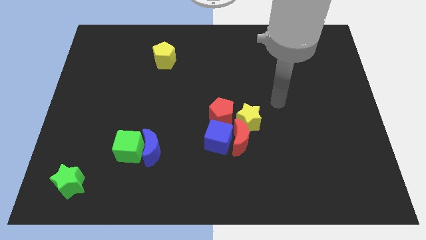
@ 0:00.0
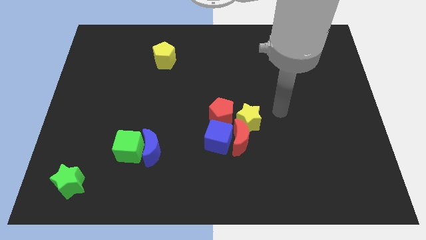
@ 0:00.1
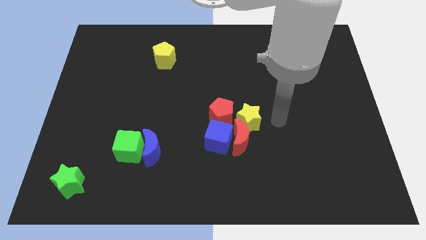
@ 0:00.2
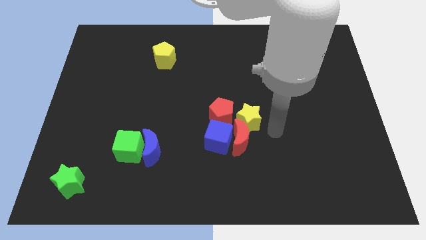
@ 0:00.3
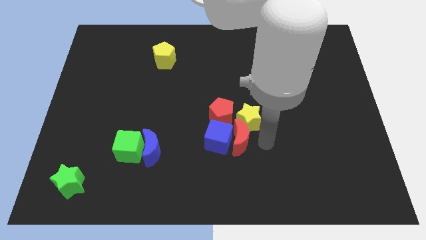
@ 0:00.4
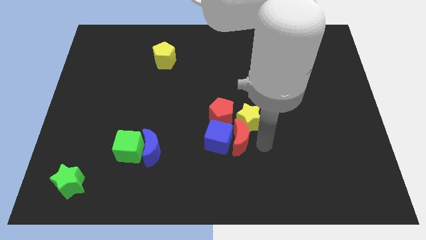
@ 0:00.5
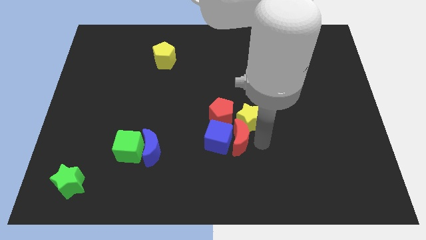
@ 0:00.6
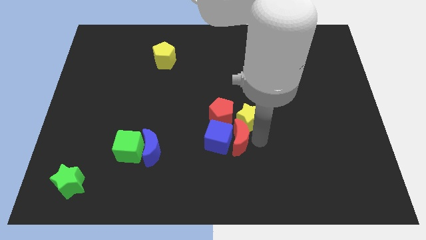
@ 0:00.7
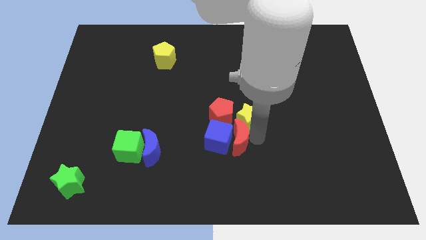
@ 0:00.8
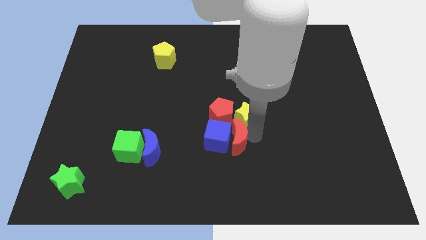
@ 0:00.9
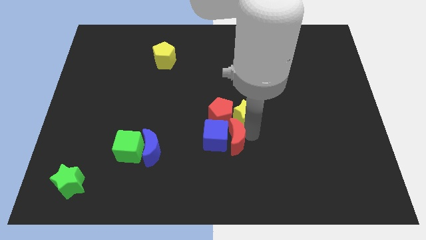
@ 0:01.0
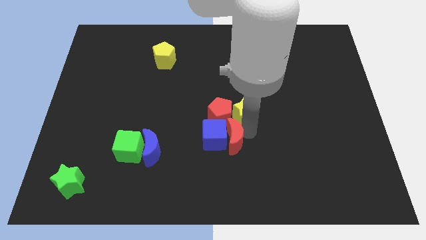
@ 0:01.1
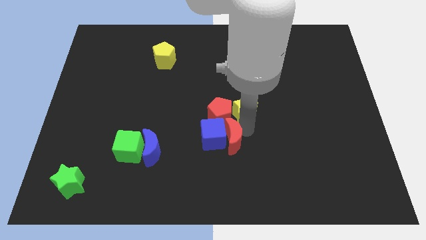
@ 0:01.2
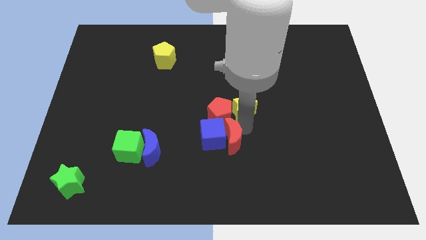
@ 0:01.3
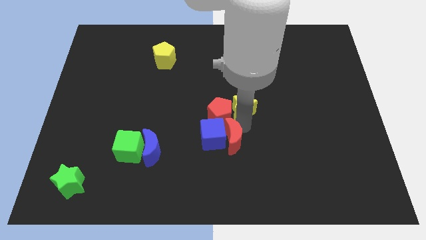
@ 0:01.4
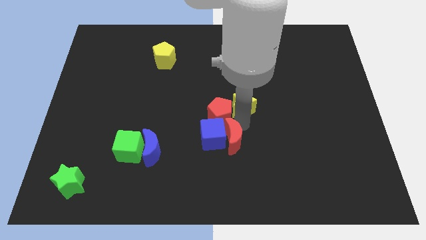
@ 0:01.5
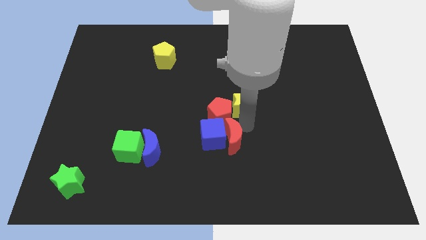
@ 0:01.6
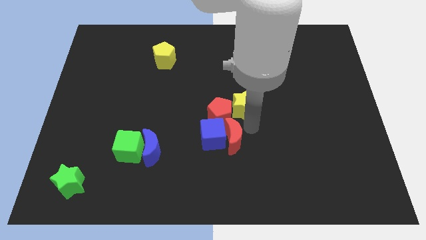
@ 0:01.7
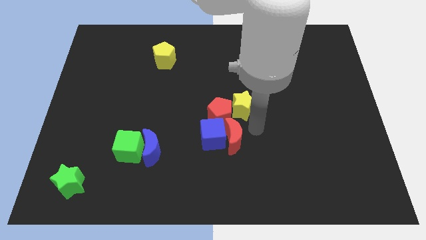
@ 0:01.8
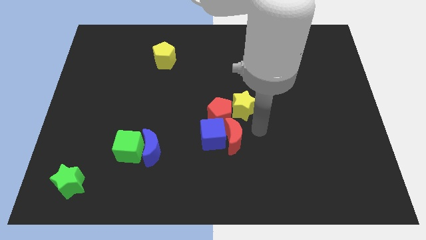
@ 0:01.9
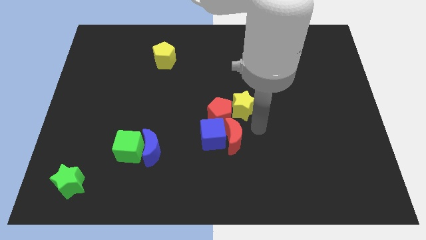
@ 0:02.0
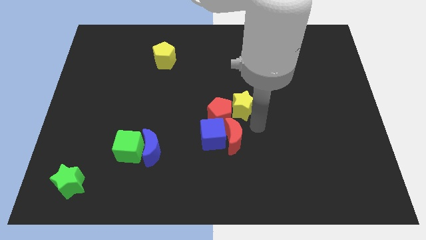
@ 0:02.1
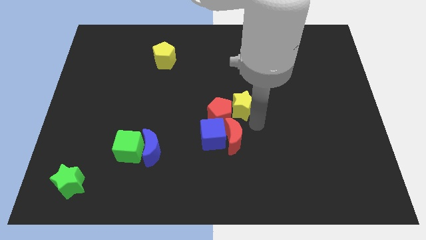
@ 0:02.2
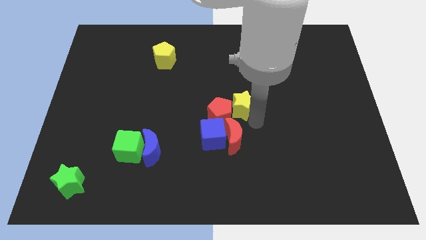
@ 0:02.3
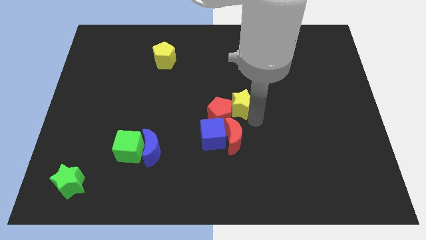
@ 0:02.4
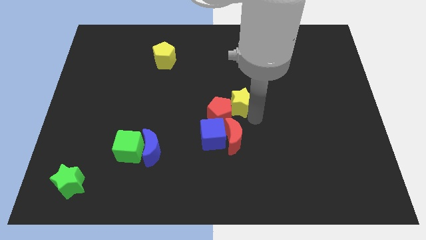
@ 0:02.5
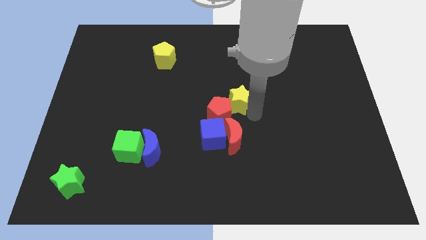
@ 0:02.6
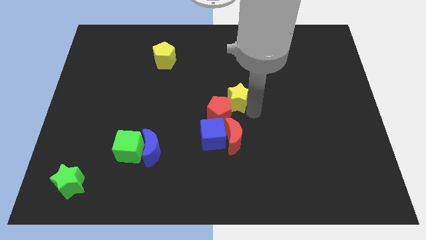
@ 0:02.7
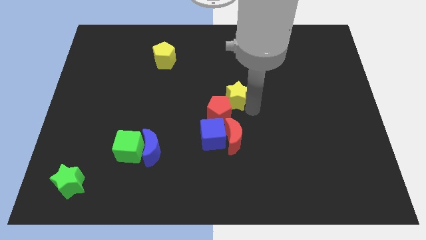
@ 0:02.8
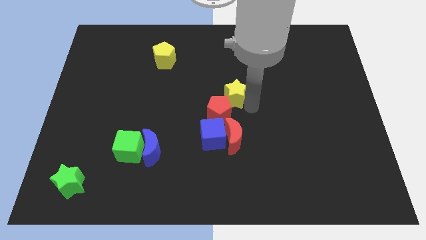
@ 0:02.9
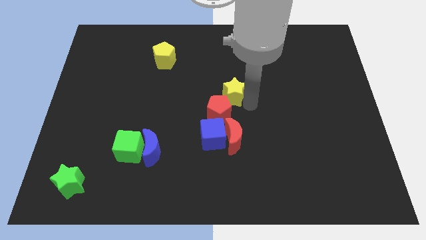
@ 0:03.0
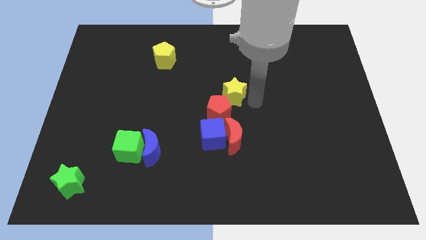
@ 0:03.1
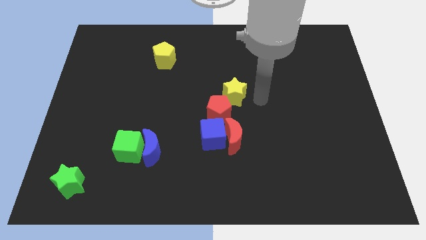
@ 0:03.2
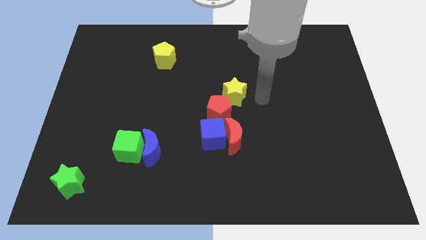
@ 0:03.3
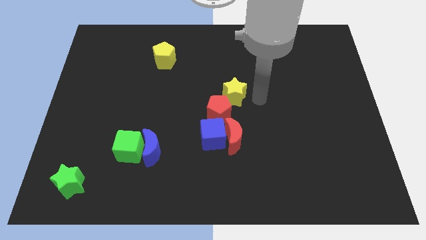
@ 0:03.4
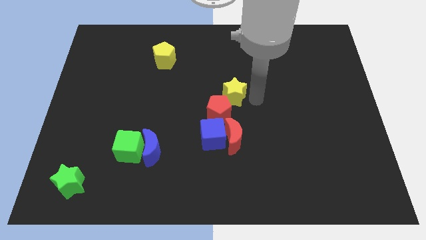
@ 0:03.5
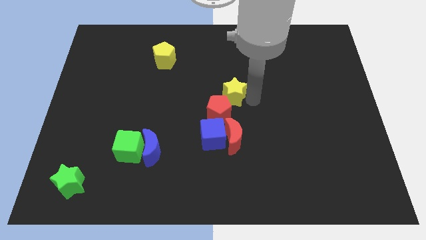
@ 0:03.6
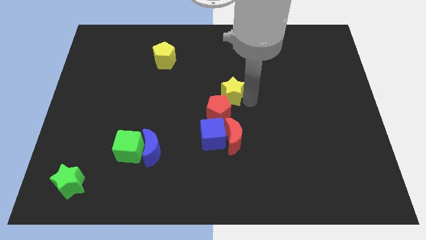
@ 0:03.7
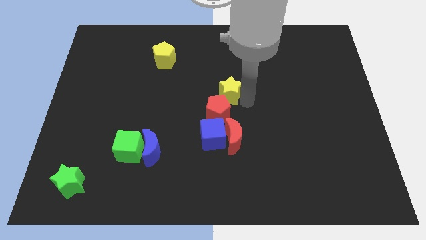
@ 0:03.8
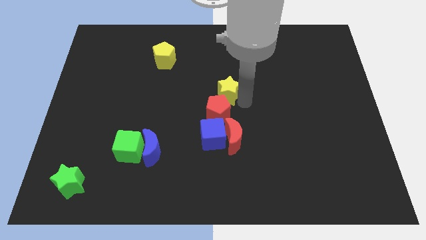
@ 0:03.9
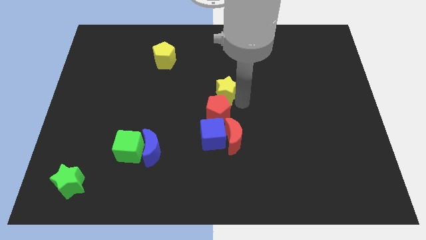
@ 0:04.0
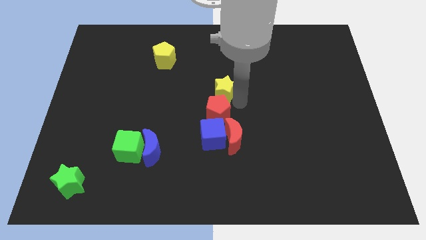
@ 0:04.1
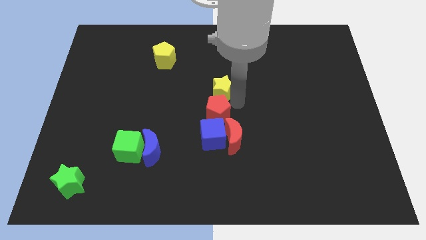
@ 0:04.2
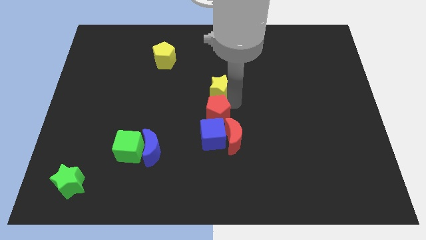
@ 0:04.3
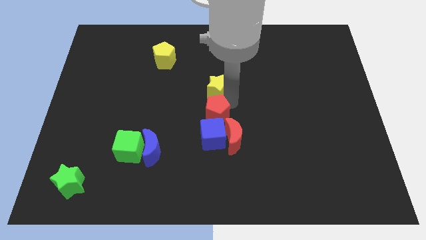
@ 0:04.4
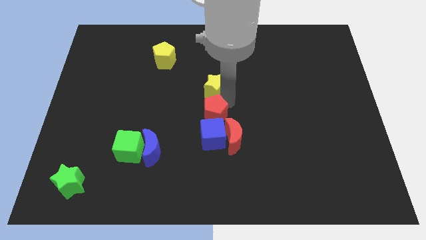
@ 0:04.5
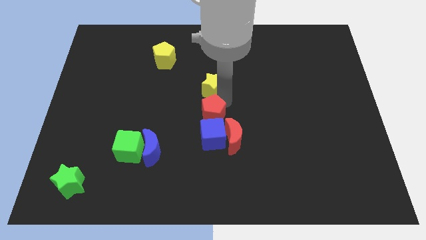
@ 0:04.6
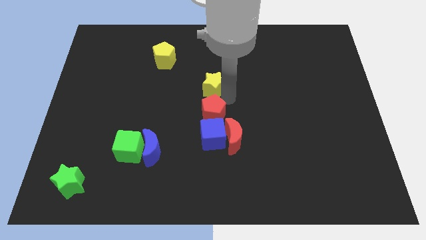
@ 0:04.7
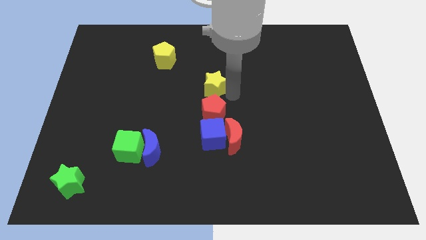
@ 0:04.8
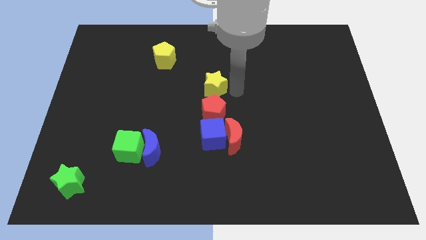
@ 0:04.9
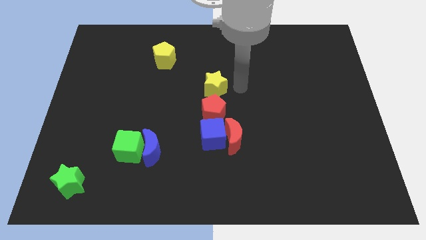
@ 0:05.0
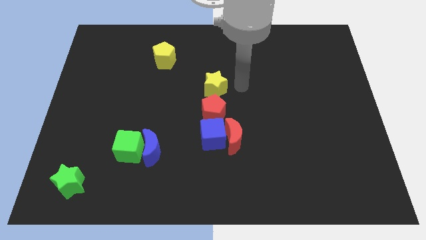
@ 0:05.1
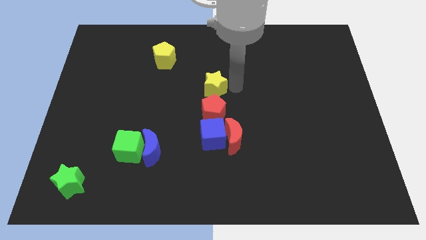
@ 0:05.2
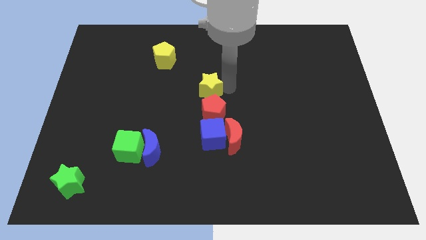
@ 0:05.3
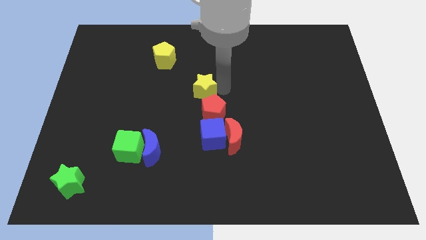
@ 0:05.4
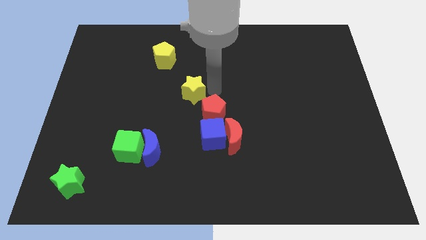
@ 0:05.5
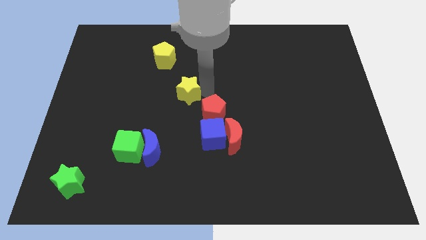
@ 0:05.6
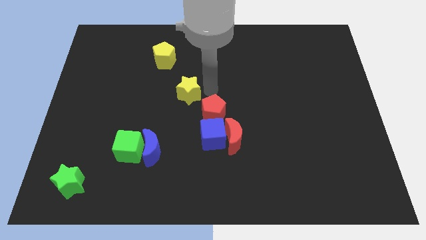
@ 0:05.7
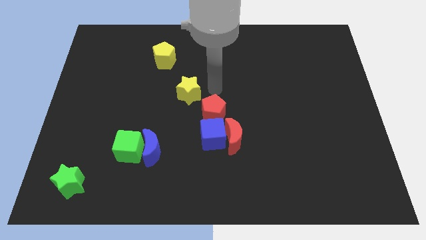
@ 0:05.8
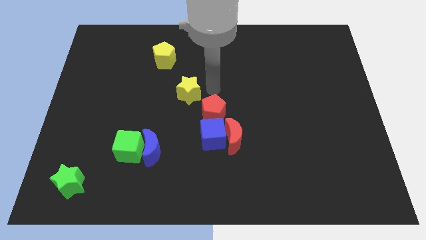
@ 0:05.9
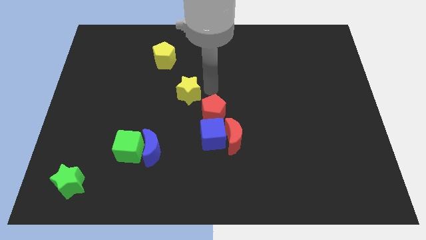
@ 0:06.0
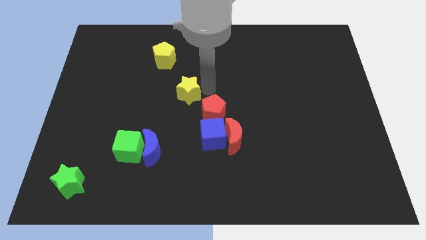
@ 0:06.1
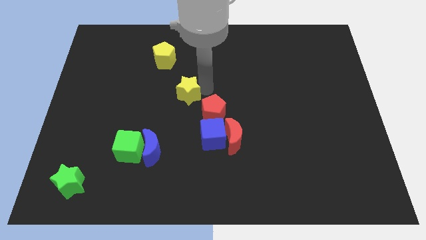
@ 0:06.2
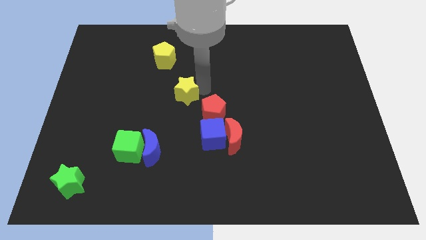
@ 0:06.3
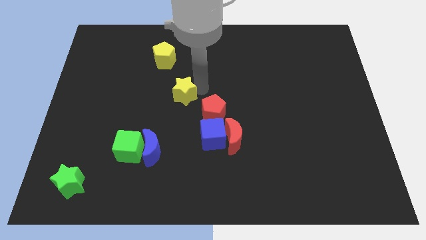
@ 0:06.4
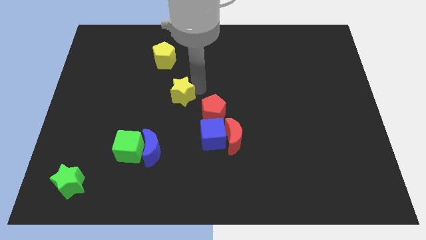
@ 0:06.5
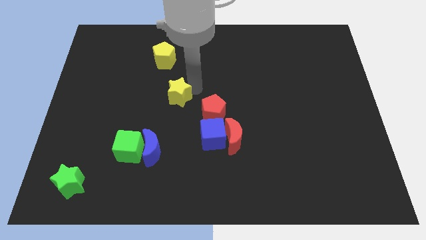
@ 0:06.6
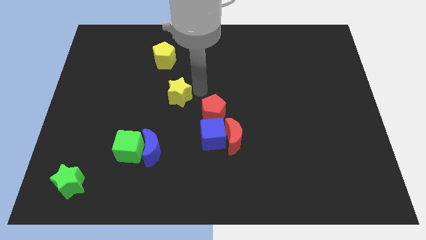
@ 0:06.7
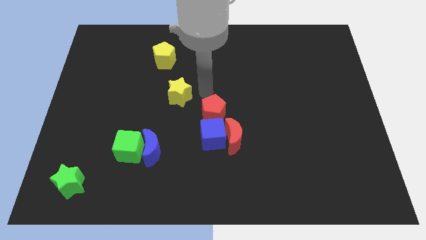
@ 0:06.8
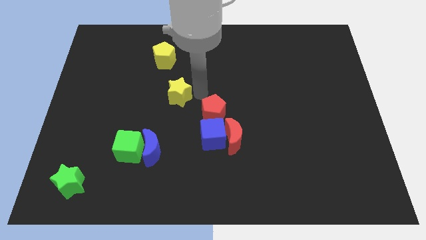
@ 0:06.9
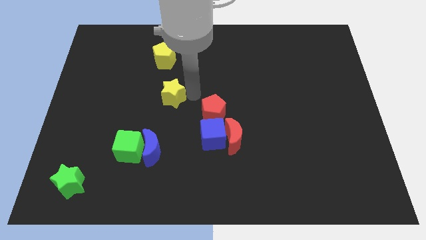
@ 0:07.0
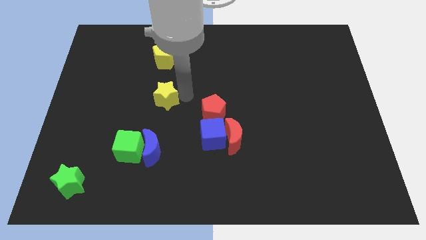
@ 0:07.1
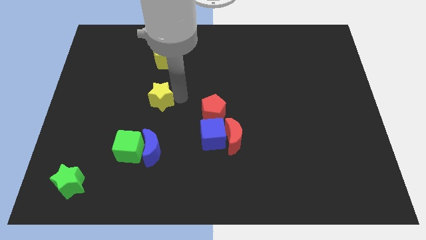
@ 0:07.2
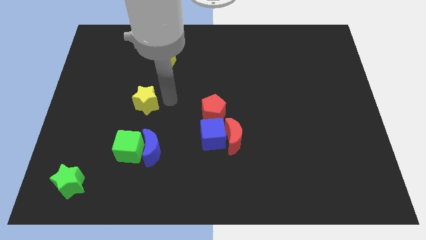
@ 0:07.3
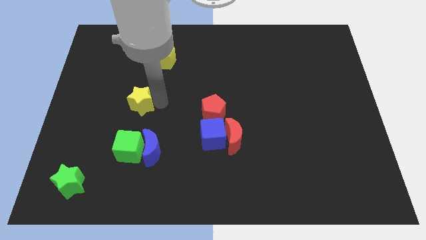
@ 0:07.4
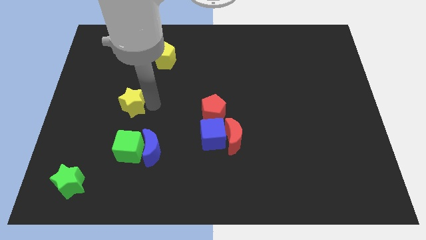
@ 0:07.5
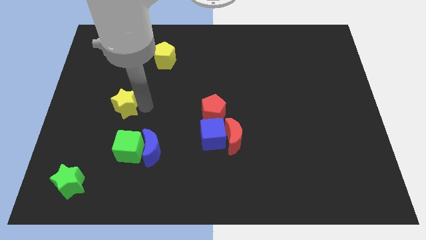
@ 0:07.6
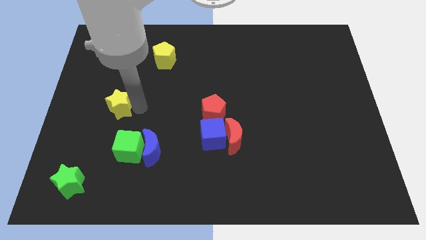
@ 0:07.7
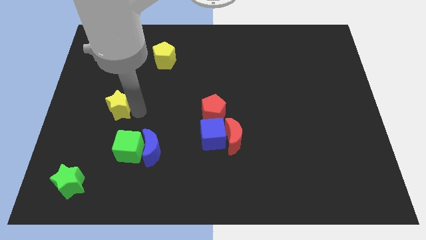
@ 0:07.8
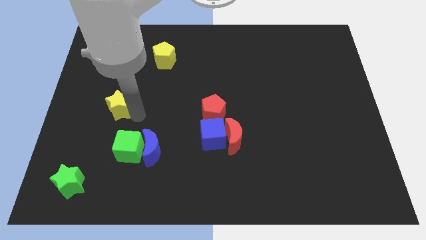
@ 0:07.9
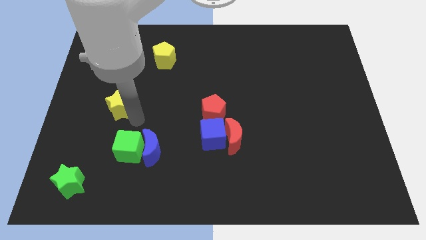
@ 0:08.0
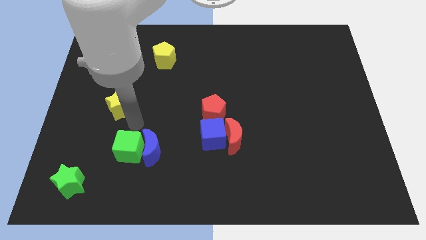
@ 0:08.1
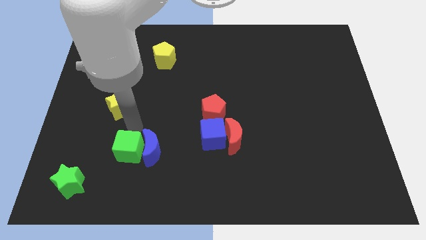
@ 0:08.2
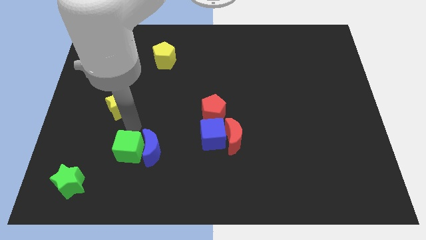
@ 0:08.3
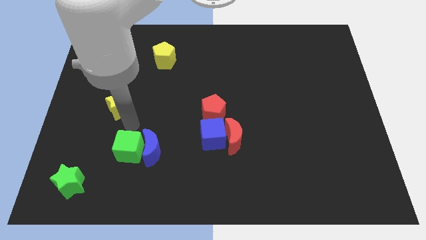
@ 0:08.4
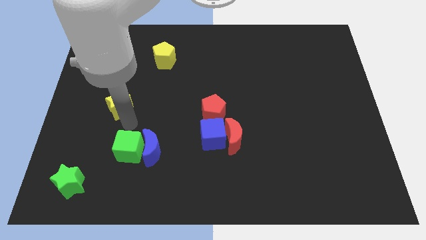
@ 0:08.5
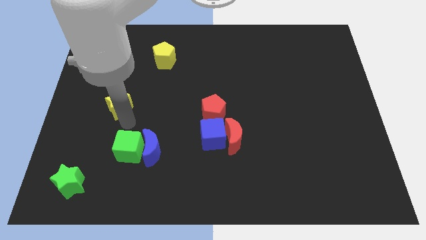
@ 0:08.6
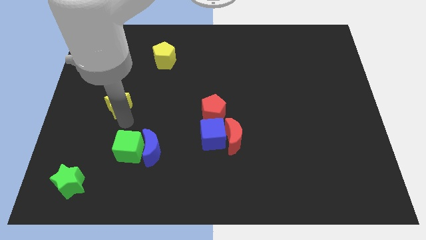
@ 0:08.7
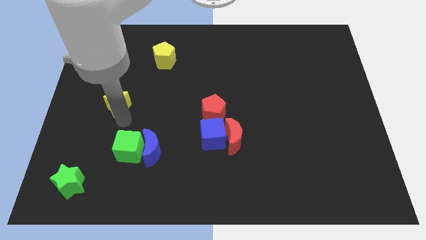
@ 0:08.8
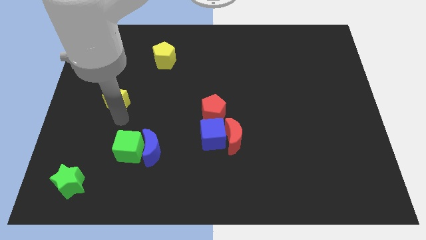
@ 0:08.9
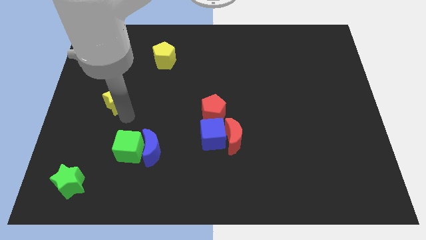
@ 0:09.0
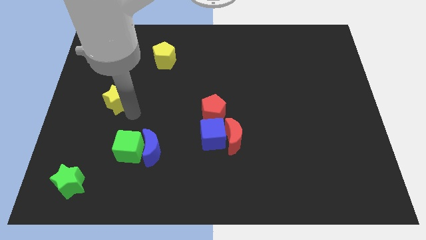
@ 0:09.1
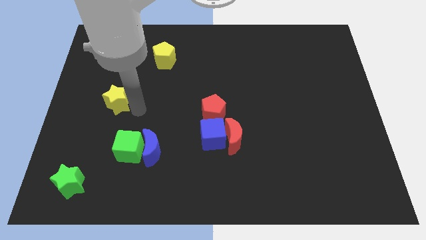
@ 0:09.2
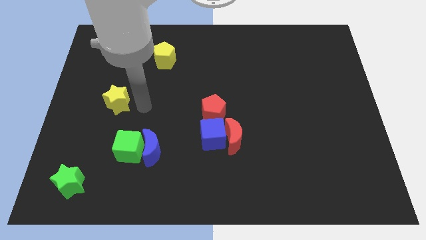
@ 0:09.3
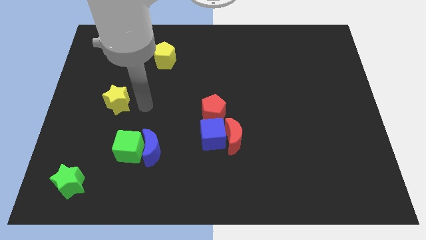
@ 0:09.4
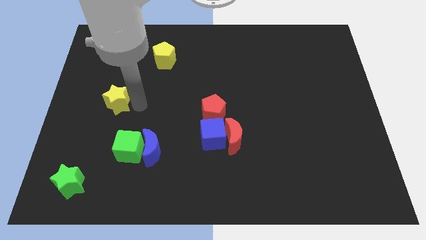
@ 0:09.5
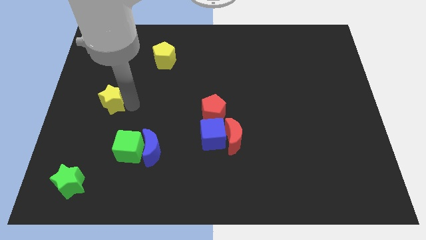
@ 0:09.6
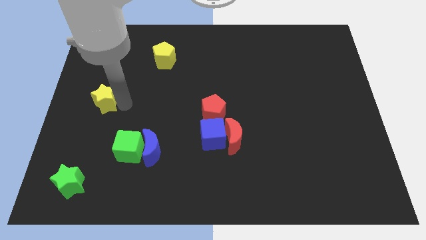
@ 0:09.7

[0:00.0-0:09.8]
put the yellow star to the left side
